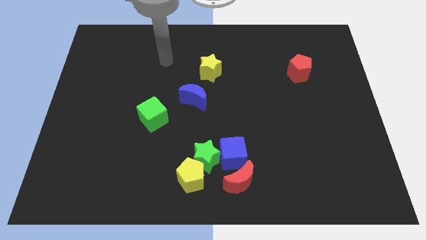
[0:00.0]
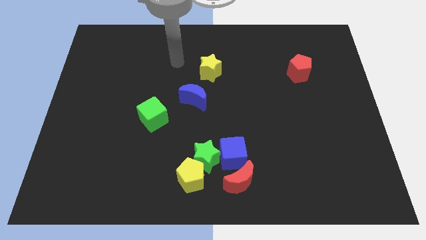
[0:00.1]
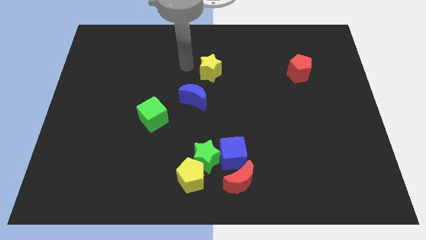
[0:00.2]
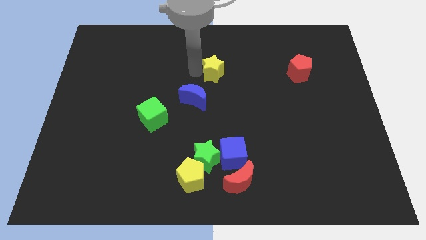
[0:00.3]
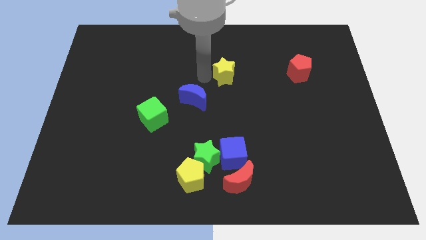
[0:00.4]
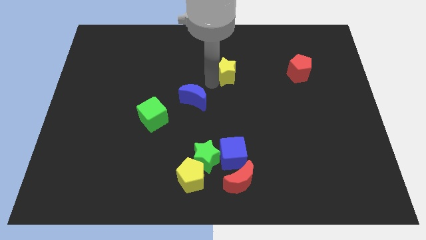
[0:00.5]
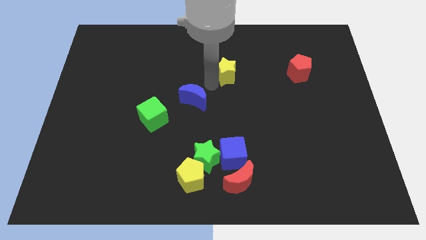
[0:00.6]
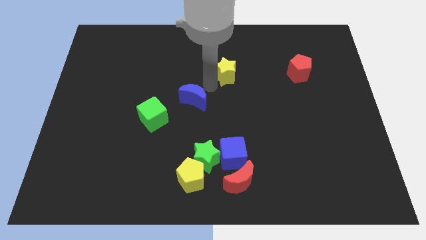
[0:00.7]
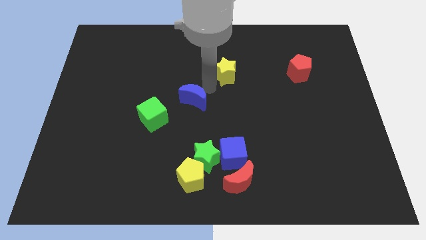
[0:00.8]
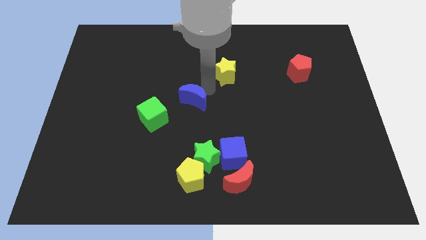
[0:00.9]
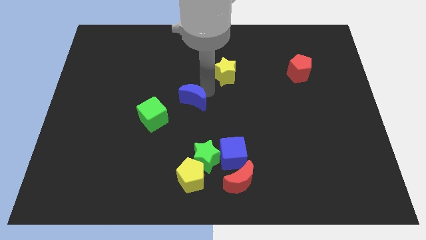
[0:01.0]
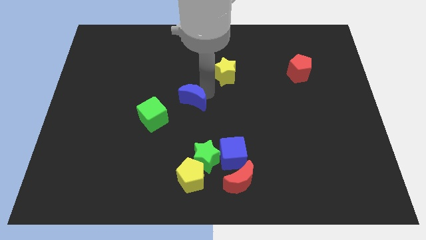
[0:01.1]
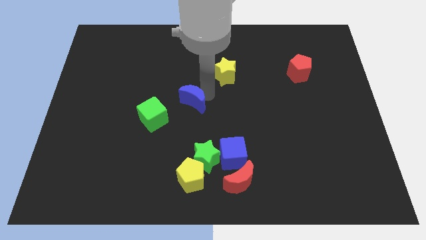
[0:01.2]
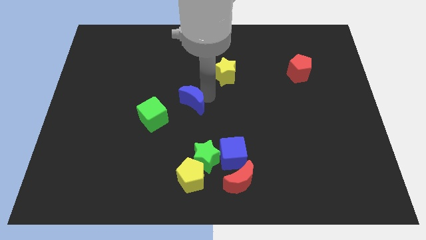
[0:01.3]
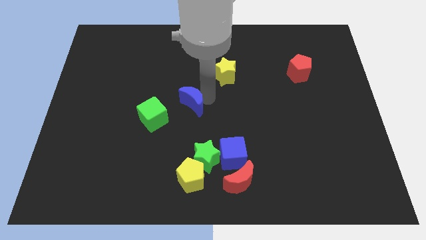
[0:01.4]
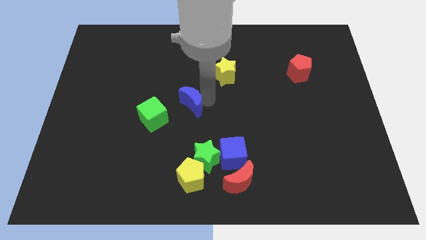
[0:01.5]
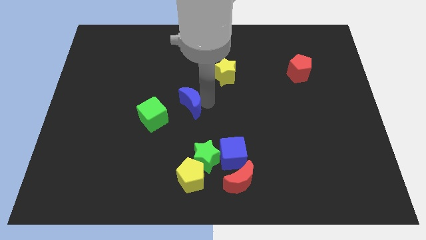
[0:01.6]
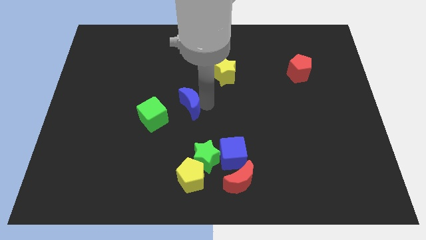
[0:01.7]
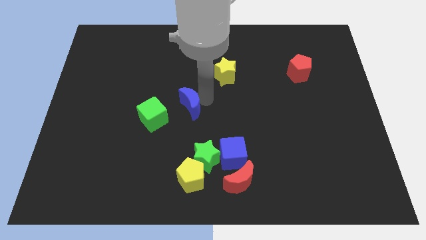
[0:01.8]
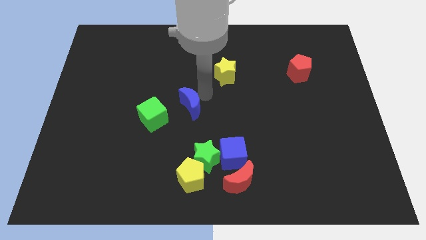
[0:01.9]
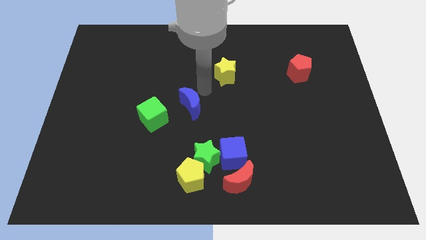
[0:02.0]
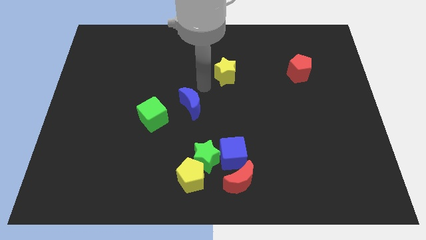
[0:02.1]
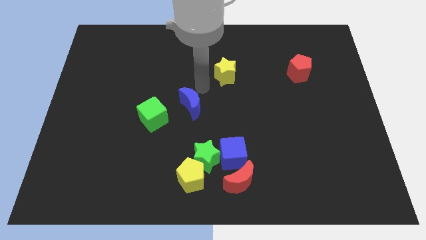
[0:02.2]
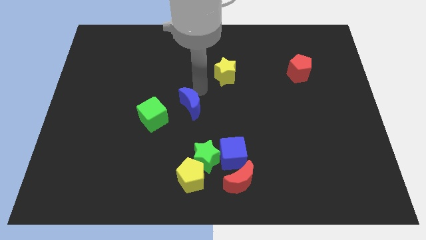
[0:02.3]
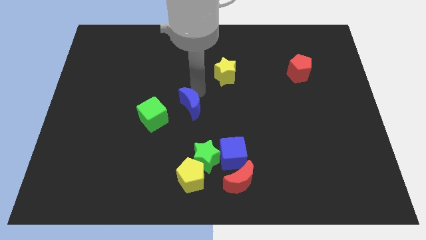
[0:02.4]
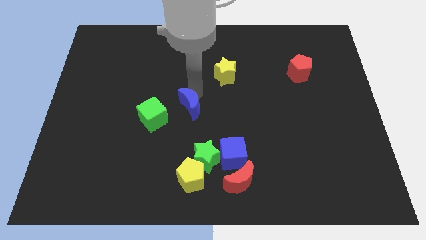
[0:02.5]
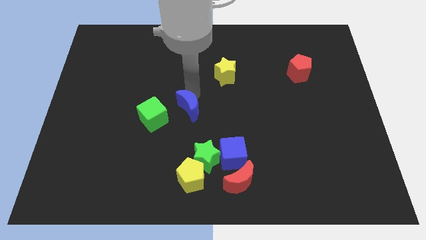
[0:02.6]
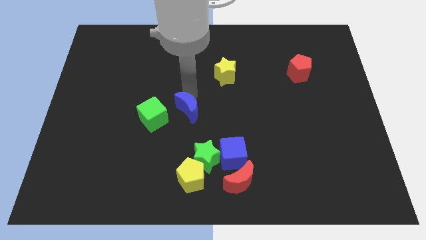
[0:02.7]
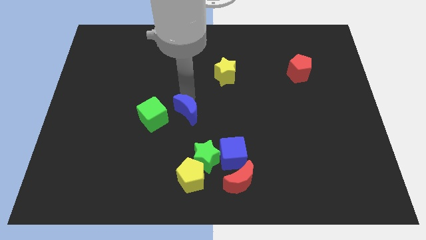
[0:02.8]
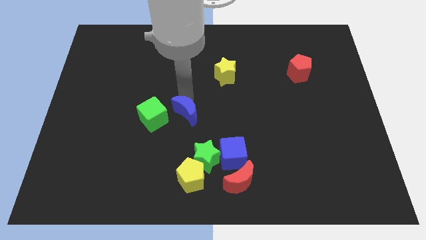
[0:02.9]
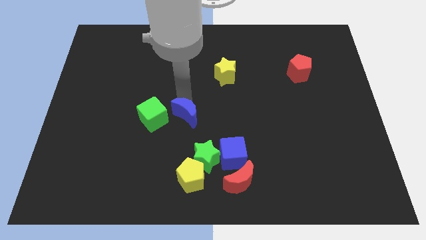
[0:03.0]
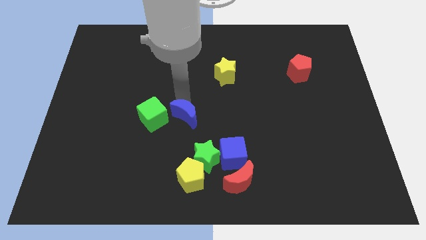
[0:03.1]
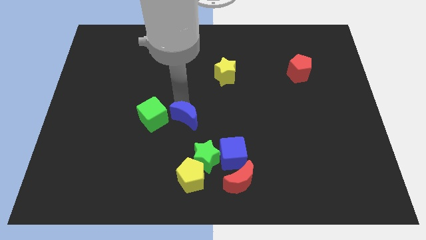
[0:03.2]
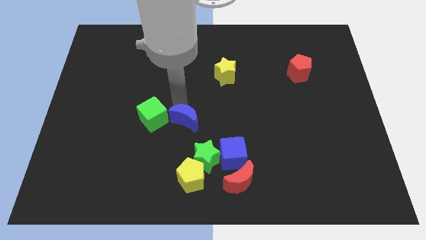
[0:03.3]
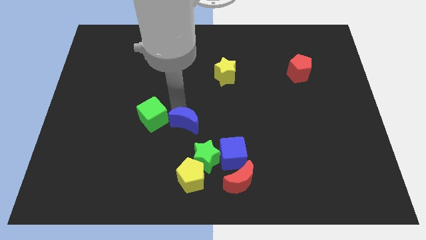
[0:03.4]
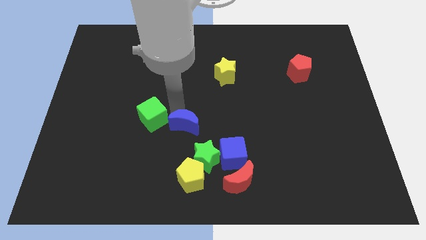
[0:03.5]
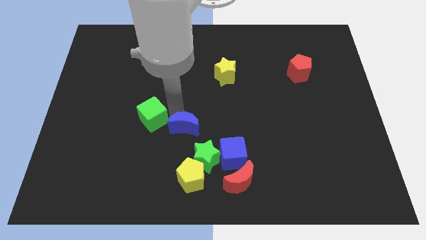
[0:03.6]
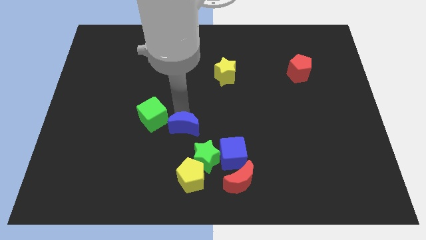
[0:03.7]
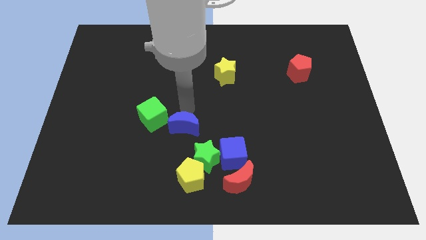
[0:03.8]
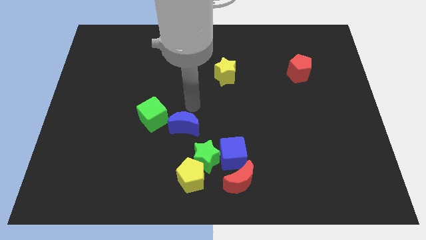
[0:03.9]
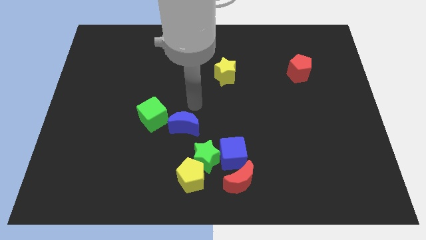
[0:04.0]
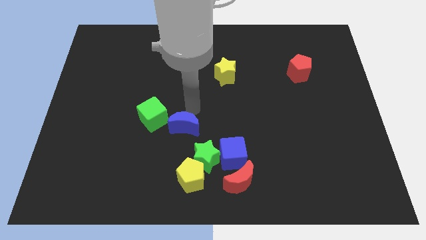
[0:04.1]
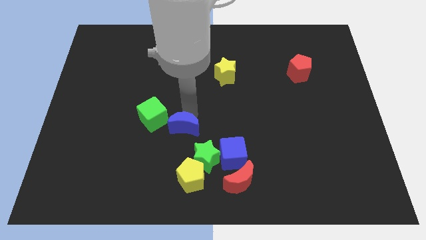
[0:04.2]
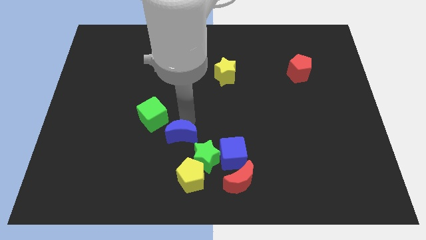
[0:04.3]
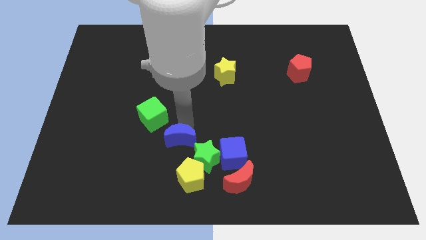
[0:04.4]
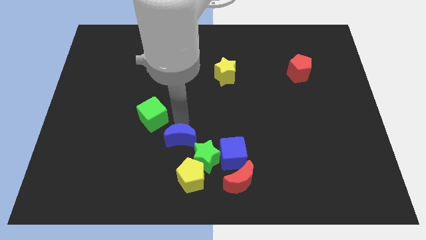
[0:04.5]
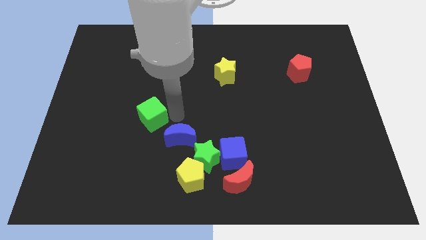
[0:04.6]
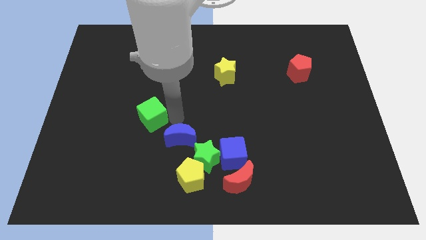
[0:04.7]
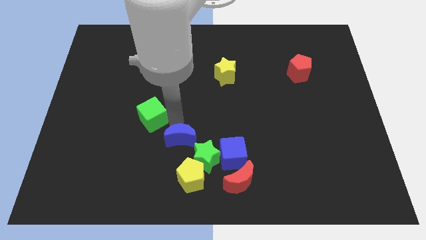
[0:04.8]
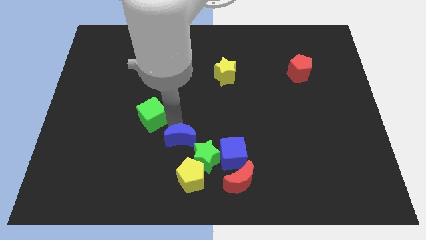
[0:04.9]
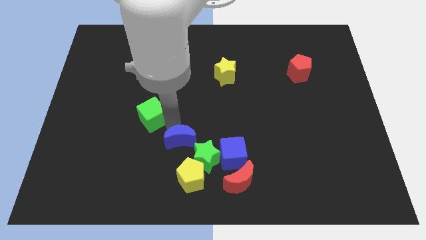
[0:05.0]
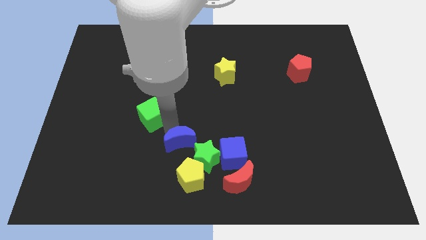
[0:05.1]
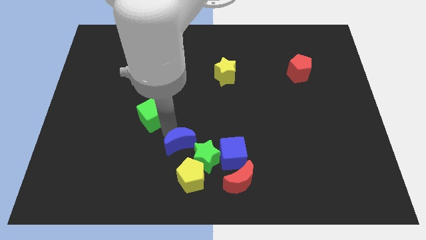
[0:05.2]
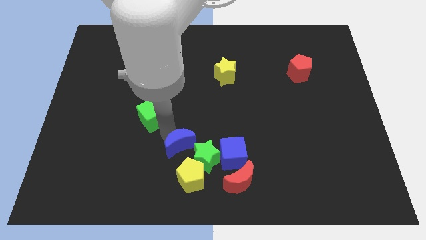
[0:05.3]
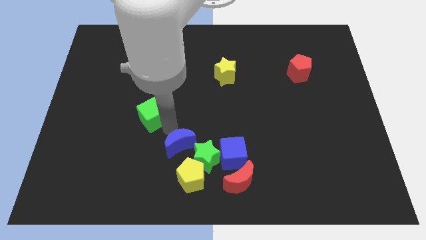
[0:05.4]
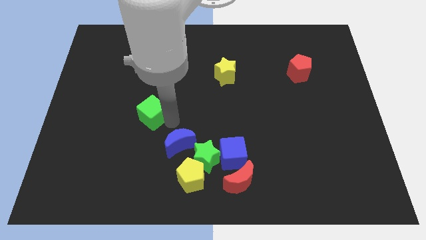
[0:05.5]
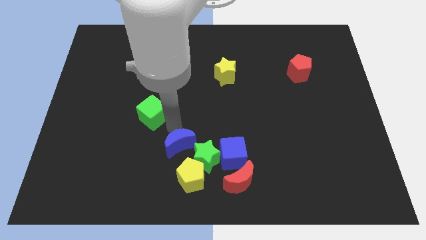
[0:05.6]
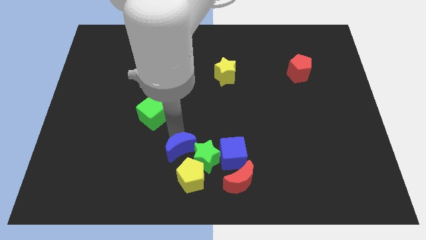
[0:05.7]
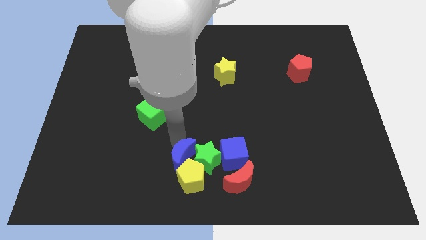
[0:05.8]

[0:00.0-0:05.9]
push the blue moon next to the yellow pentagon

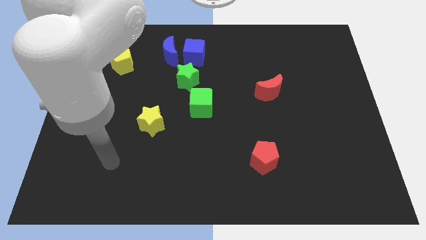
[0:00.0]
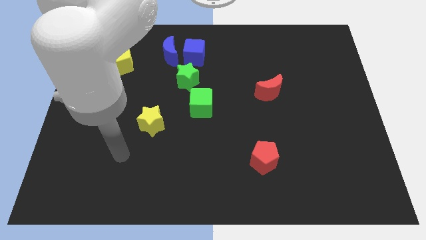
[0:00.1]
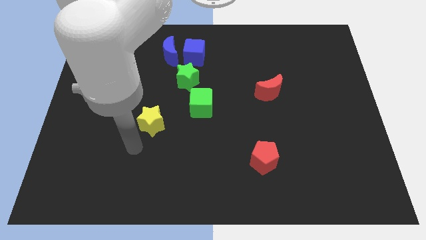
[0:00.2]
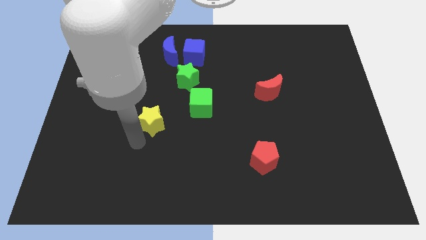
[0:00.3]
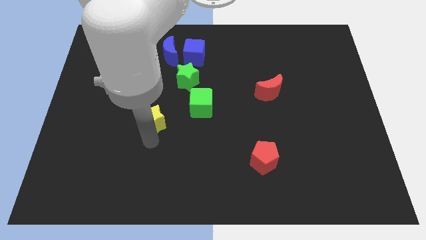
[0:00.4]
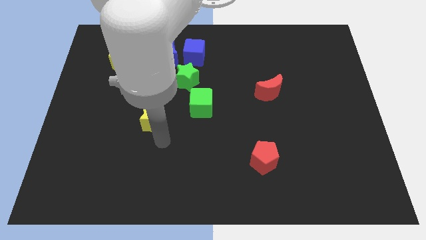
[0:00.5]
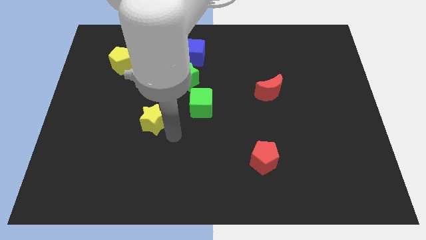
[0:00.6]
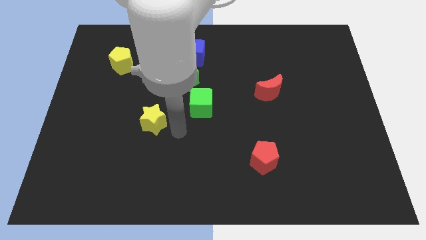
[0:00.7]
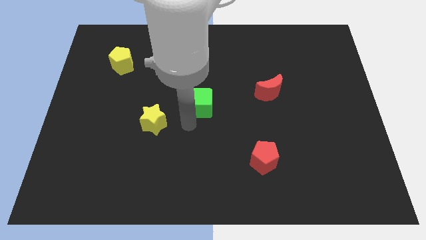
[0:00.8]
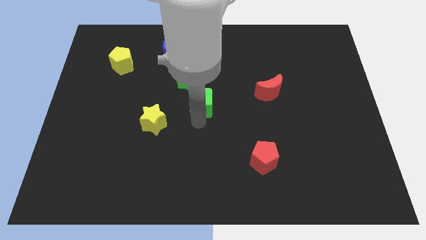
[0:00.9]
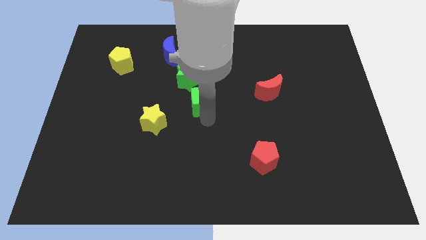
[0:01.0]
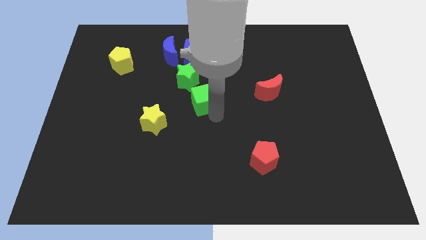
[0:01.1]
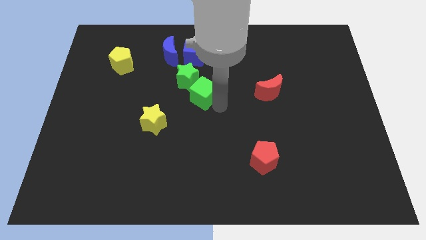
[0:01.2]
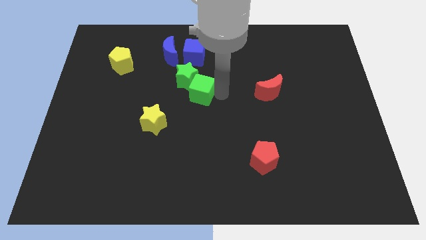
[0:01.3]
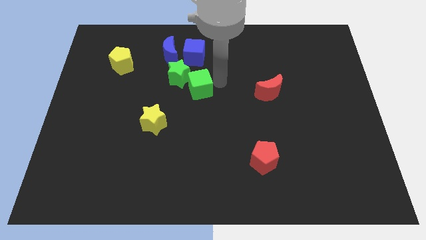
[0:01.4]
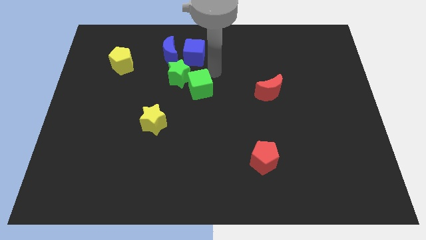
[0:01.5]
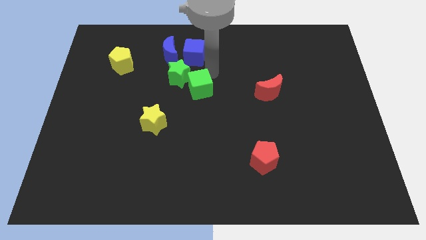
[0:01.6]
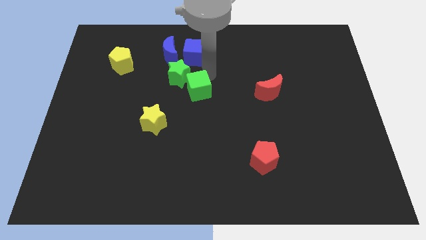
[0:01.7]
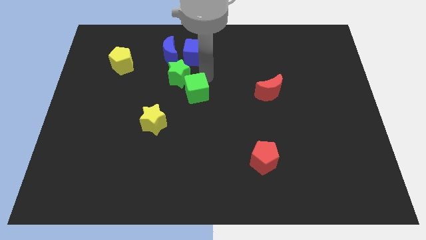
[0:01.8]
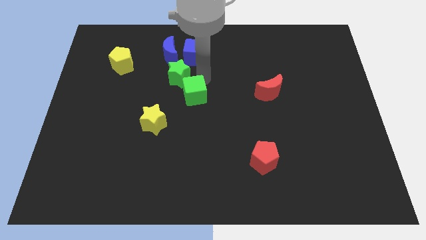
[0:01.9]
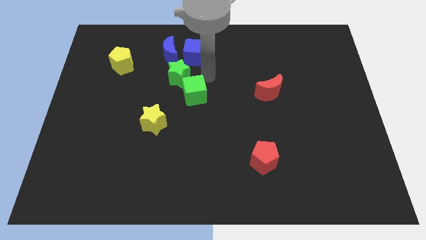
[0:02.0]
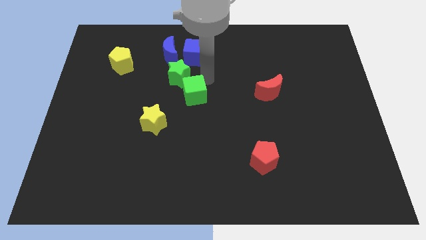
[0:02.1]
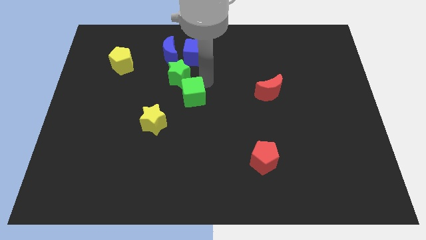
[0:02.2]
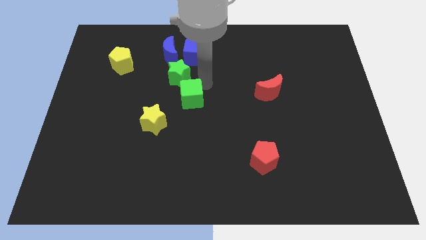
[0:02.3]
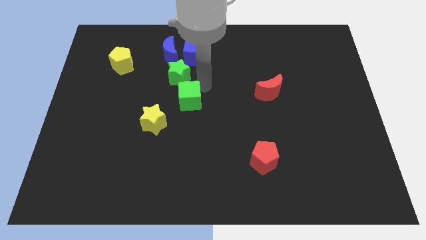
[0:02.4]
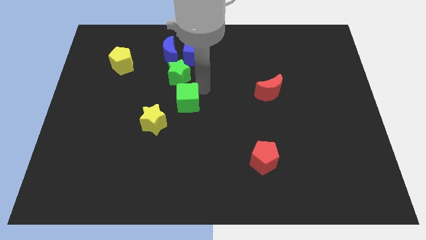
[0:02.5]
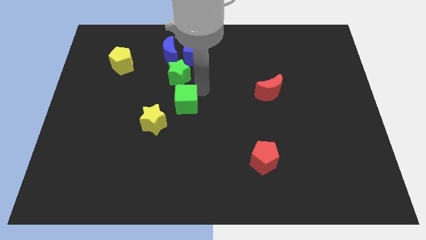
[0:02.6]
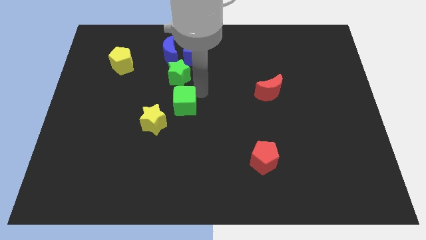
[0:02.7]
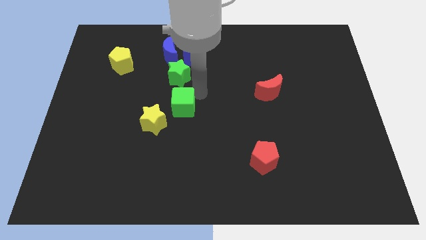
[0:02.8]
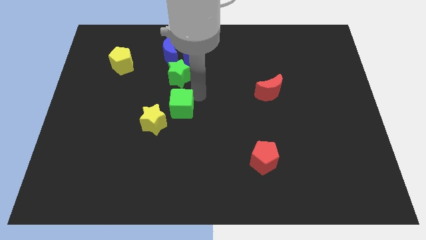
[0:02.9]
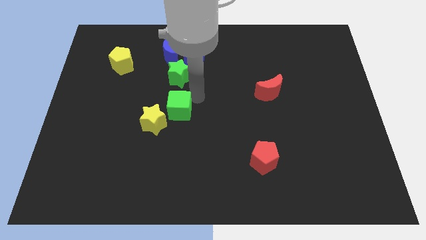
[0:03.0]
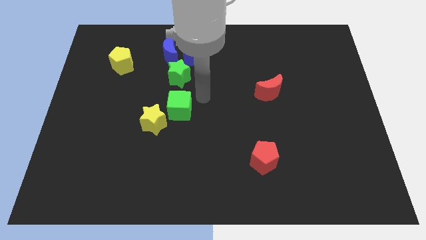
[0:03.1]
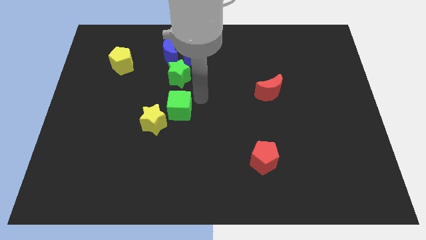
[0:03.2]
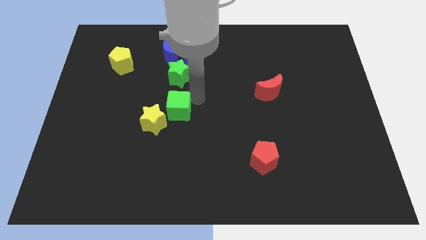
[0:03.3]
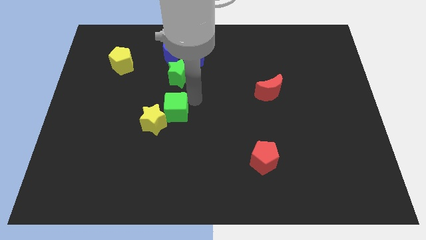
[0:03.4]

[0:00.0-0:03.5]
slide the green cube next to the yellow star
